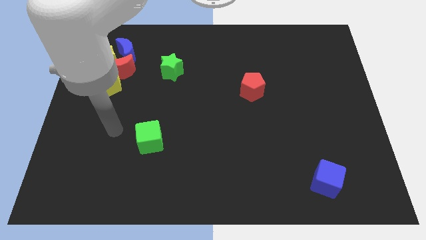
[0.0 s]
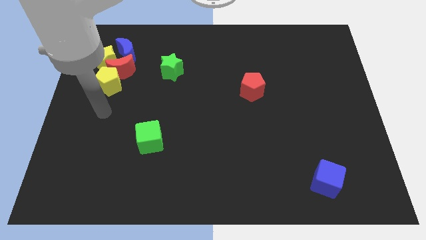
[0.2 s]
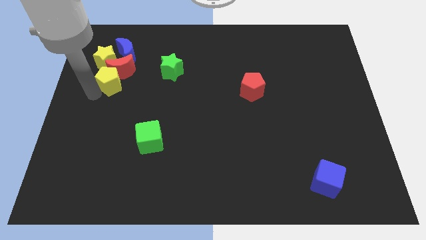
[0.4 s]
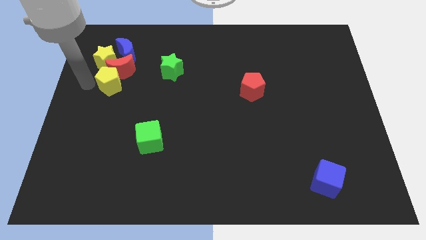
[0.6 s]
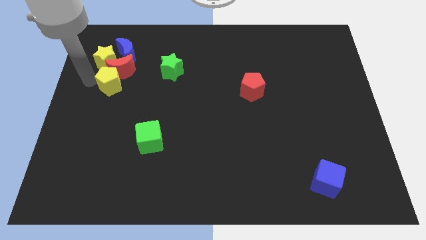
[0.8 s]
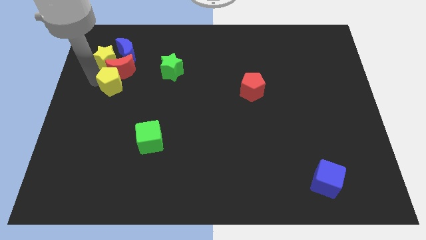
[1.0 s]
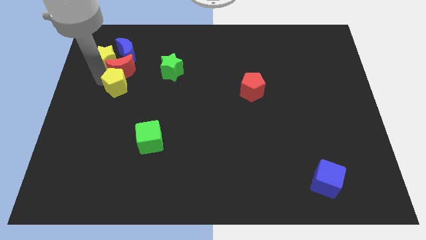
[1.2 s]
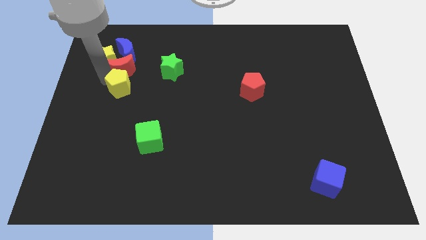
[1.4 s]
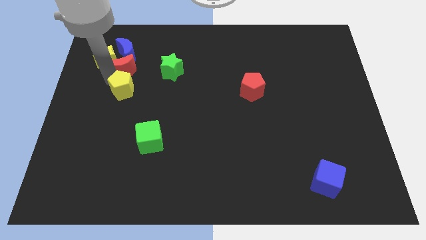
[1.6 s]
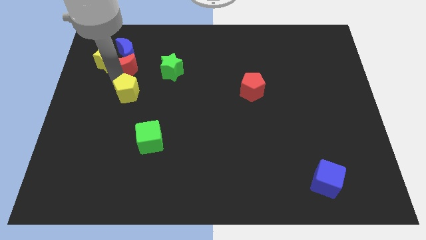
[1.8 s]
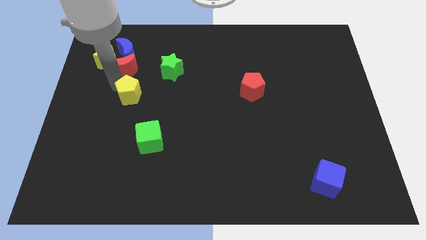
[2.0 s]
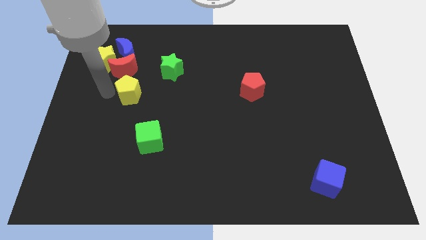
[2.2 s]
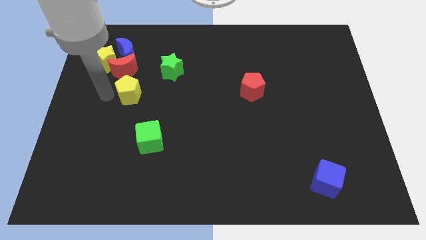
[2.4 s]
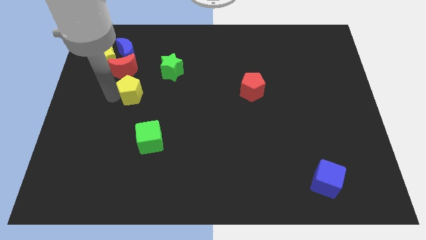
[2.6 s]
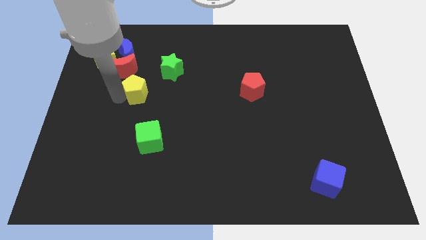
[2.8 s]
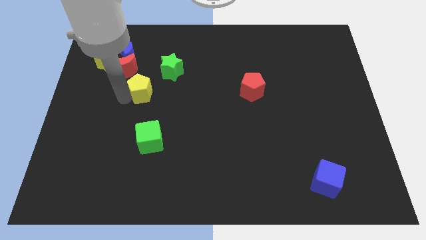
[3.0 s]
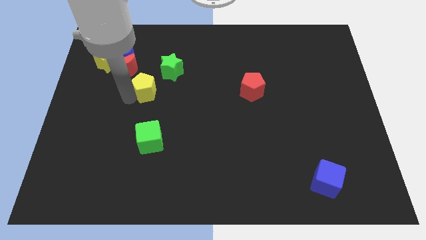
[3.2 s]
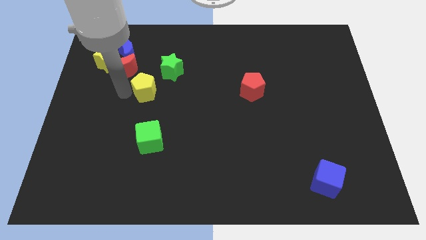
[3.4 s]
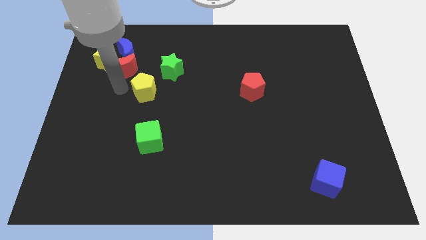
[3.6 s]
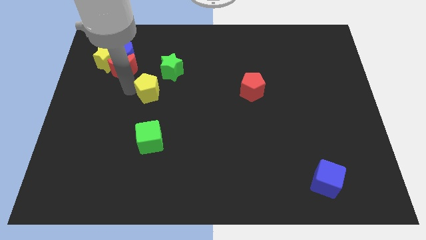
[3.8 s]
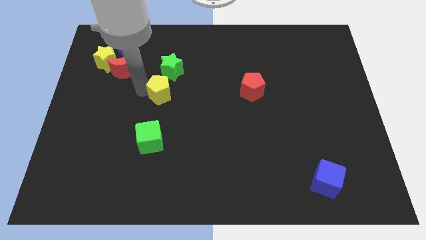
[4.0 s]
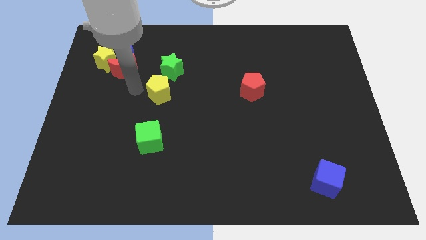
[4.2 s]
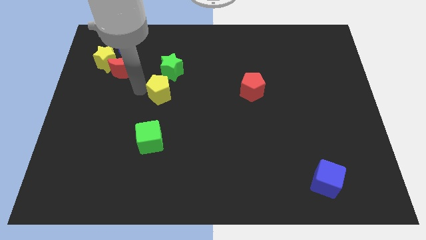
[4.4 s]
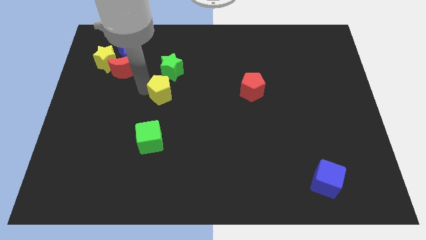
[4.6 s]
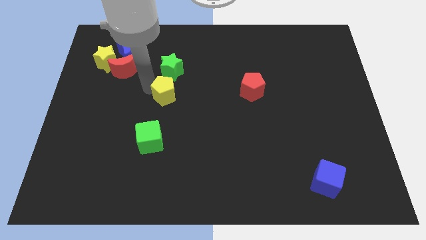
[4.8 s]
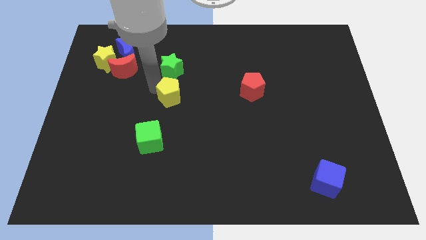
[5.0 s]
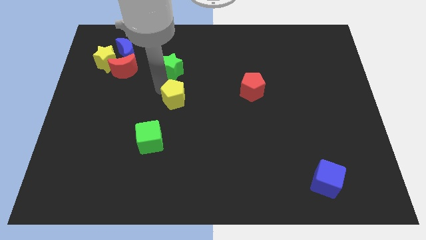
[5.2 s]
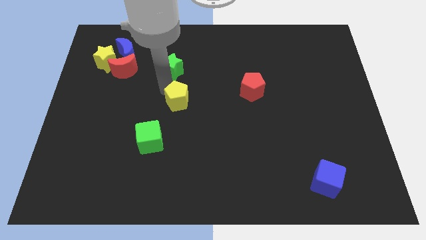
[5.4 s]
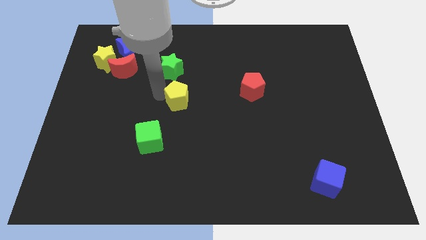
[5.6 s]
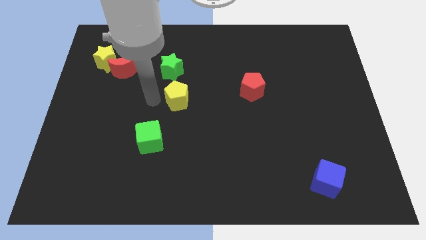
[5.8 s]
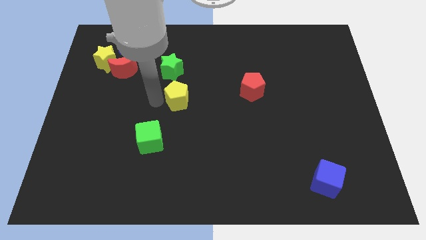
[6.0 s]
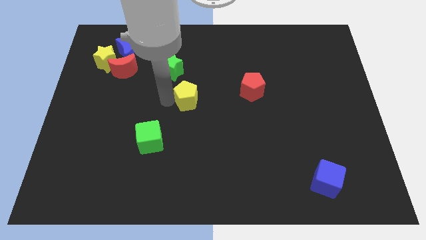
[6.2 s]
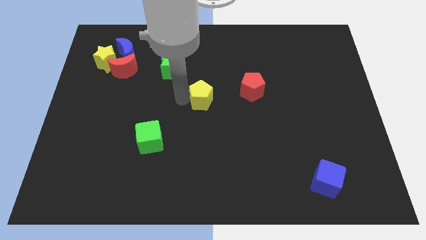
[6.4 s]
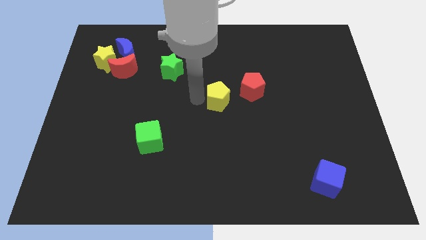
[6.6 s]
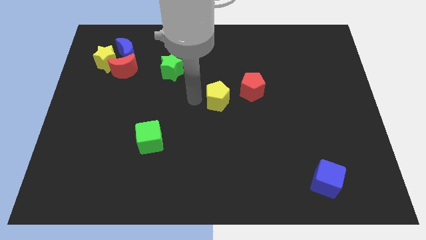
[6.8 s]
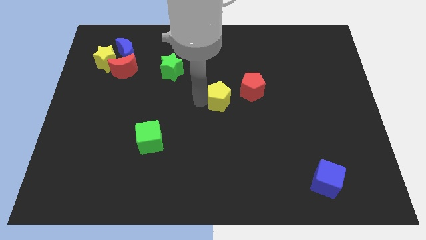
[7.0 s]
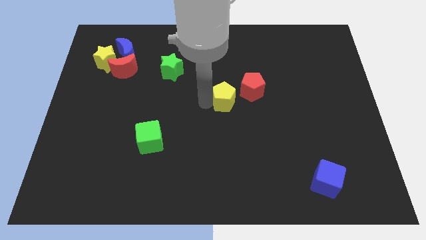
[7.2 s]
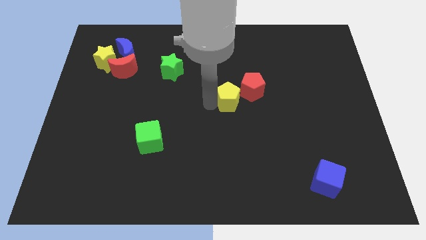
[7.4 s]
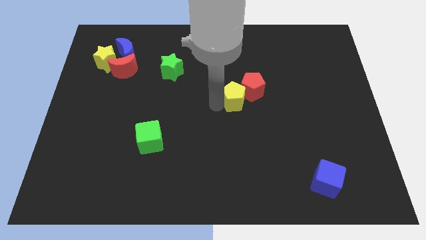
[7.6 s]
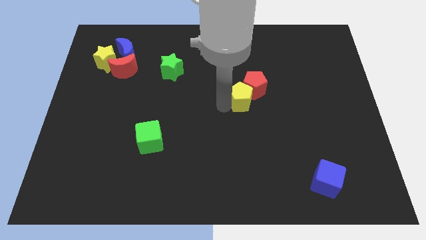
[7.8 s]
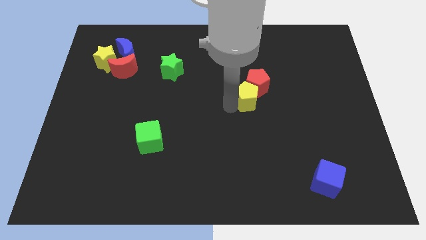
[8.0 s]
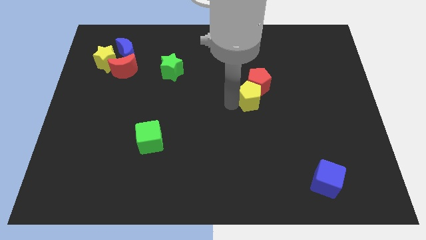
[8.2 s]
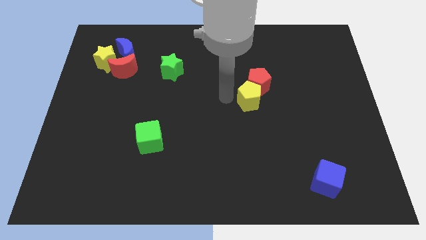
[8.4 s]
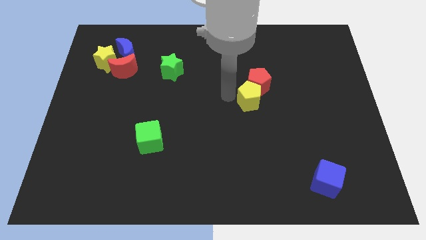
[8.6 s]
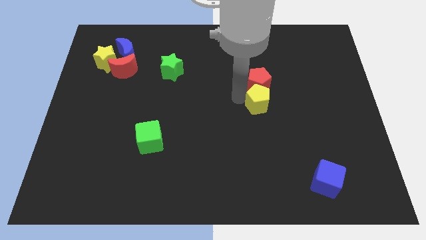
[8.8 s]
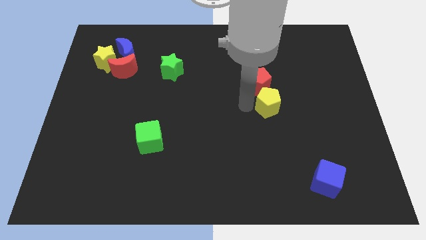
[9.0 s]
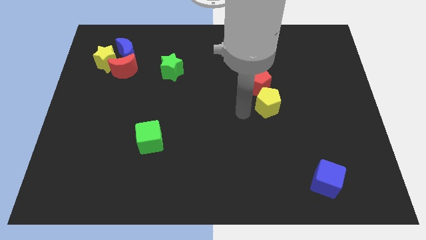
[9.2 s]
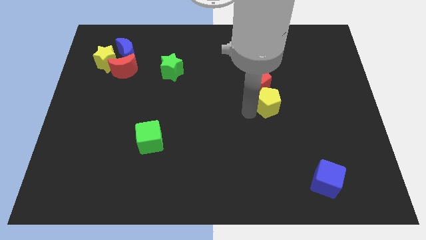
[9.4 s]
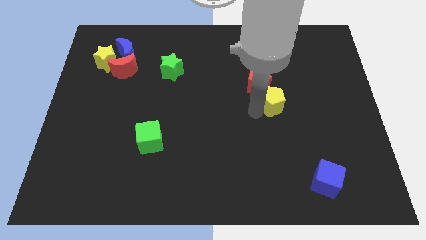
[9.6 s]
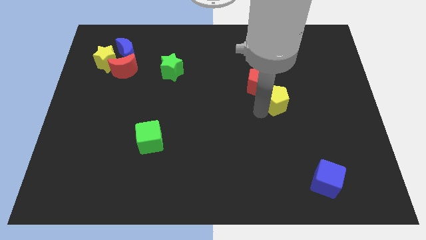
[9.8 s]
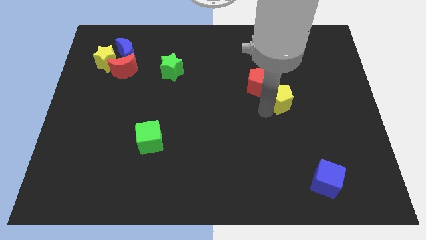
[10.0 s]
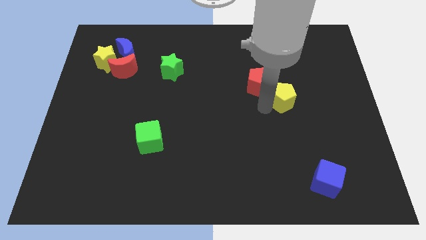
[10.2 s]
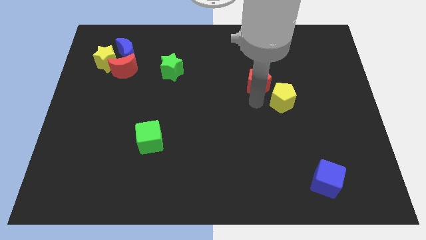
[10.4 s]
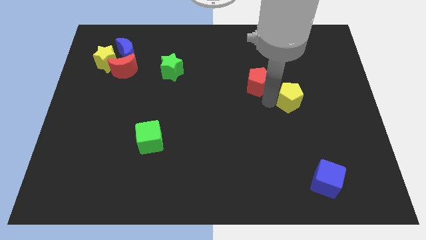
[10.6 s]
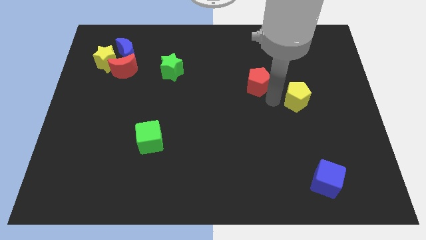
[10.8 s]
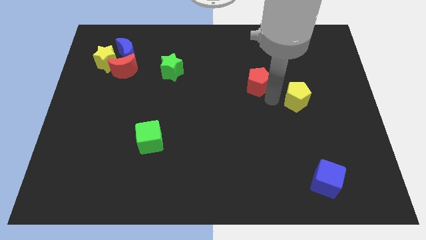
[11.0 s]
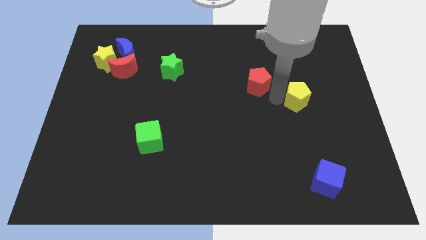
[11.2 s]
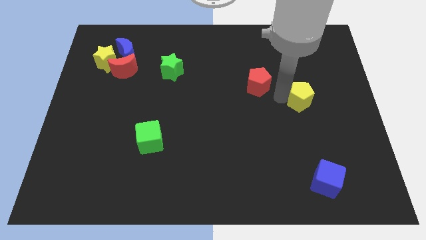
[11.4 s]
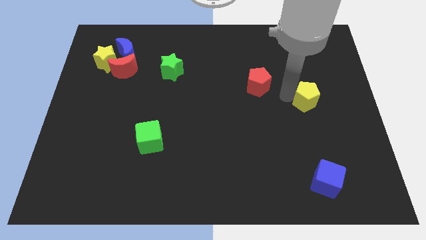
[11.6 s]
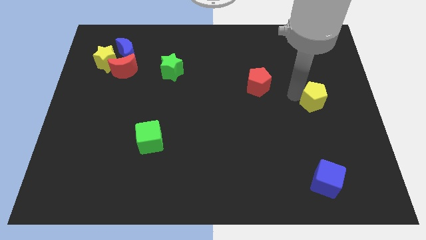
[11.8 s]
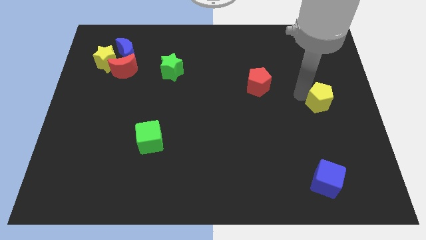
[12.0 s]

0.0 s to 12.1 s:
put the yellow pentagon to the right side of the board
